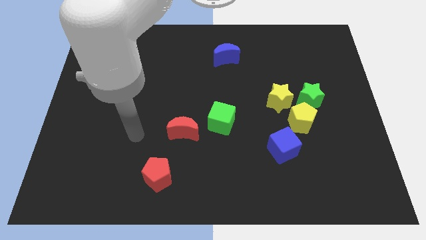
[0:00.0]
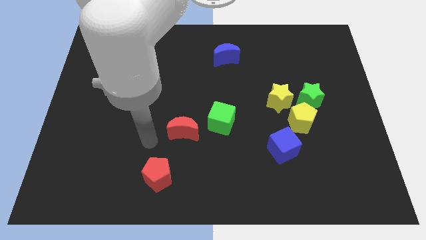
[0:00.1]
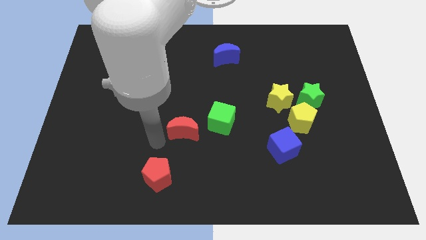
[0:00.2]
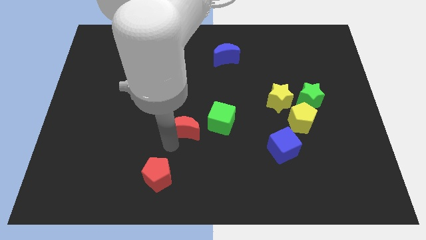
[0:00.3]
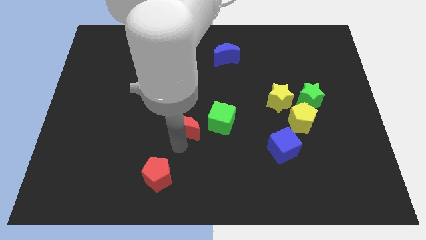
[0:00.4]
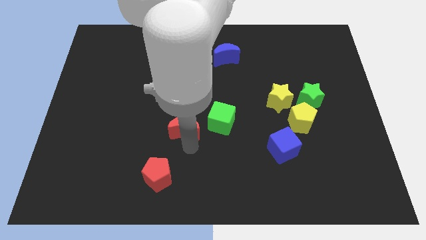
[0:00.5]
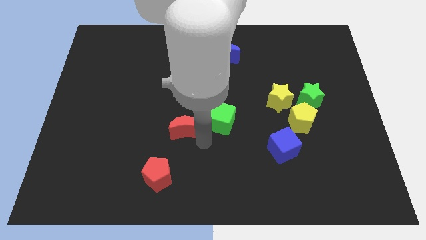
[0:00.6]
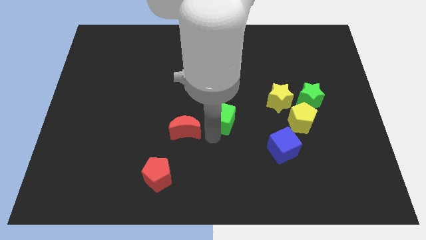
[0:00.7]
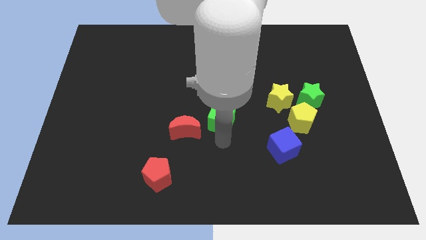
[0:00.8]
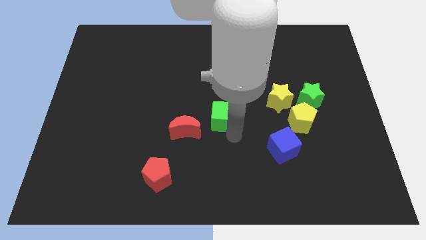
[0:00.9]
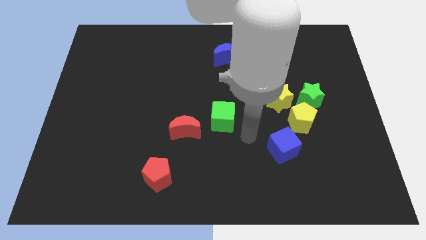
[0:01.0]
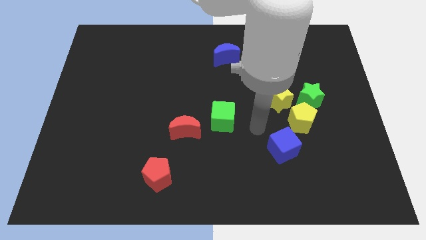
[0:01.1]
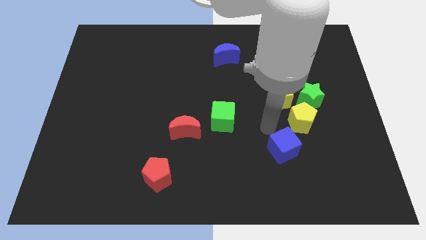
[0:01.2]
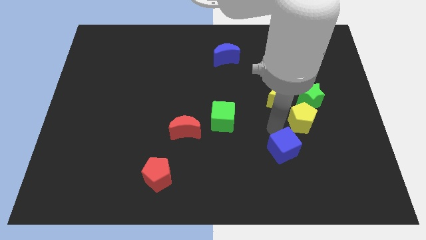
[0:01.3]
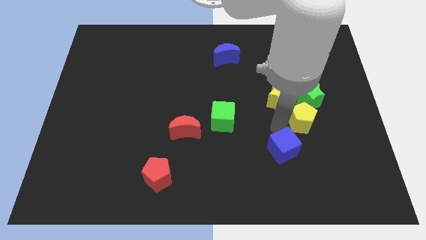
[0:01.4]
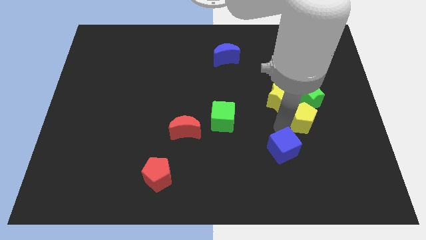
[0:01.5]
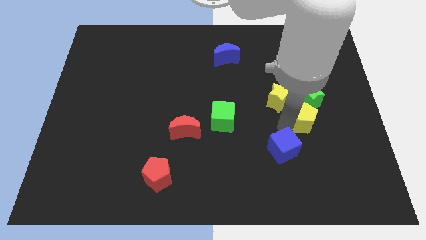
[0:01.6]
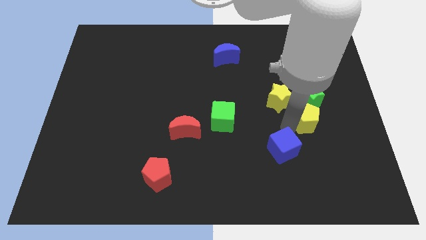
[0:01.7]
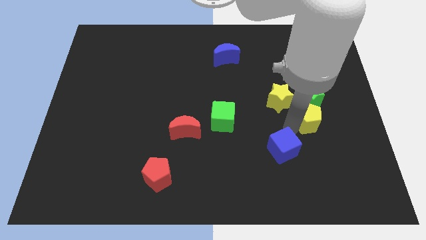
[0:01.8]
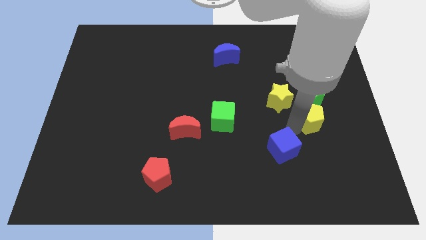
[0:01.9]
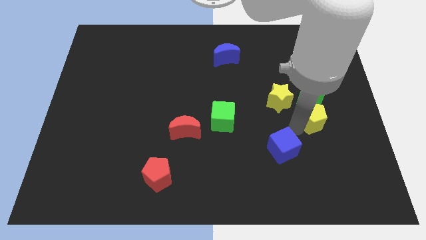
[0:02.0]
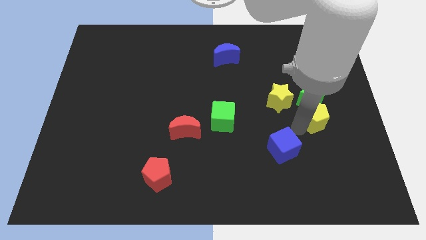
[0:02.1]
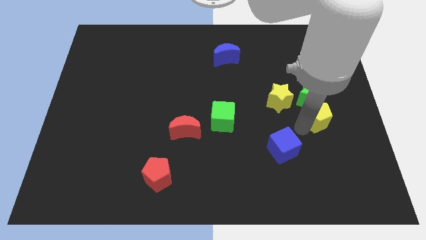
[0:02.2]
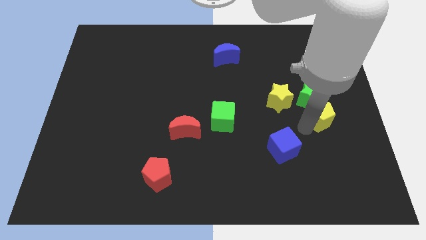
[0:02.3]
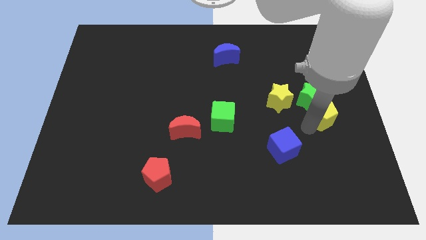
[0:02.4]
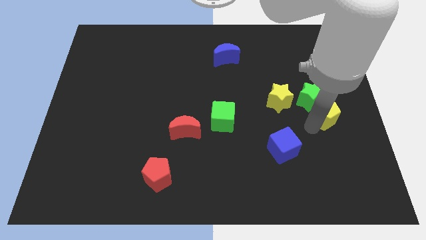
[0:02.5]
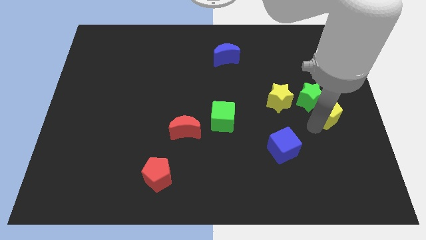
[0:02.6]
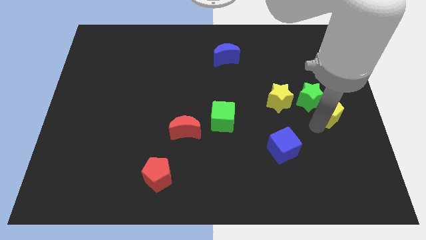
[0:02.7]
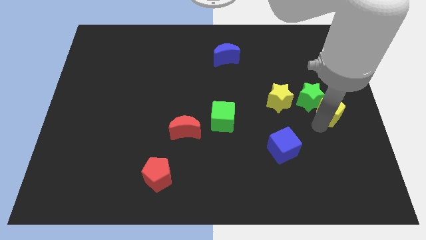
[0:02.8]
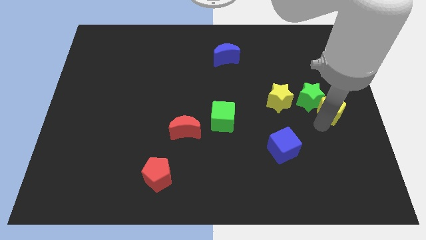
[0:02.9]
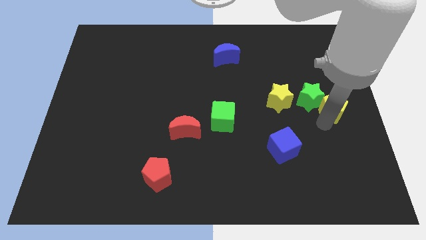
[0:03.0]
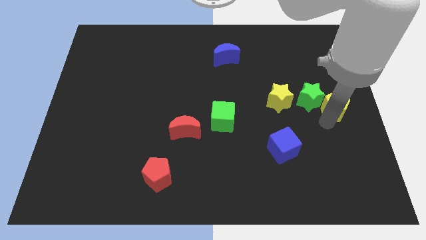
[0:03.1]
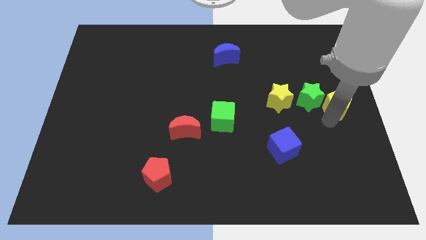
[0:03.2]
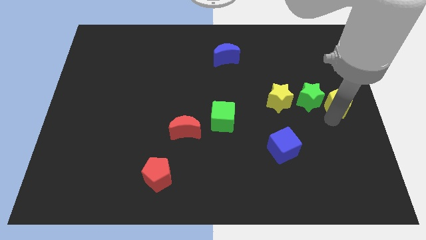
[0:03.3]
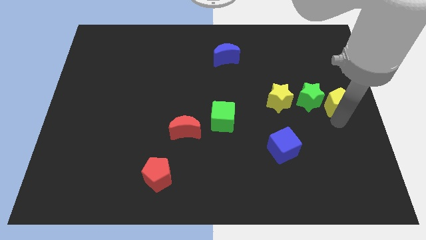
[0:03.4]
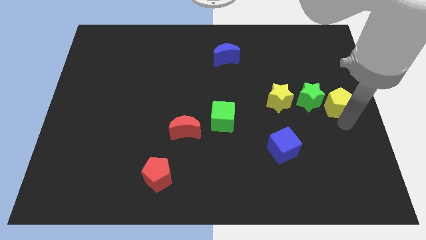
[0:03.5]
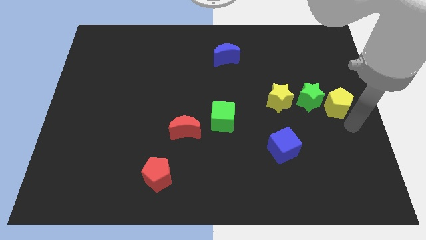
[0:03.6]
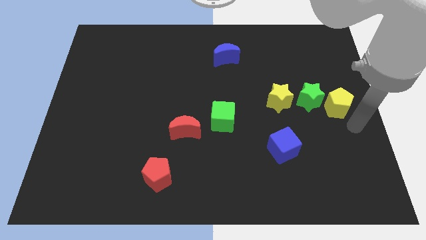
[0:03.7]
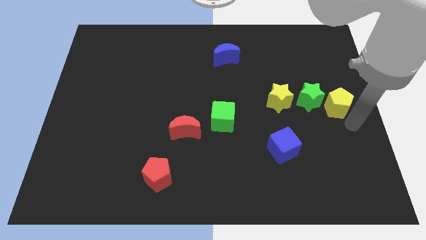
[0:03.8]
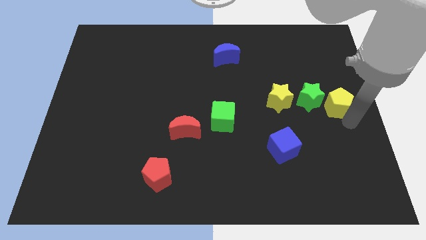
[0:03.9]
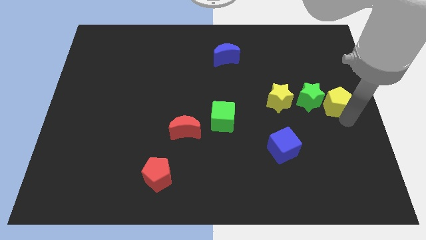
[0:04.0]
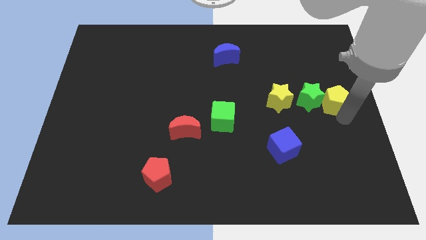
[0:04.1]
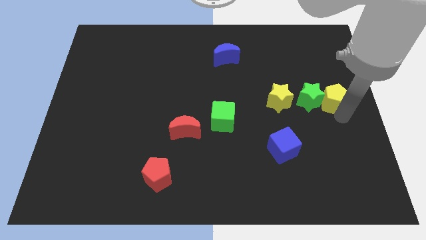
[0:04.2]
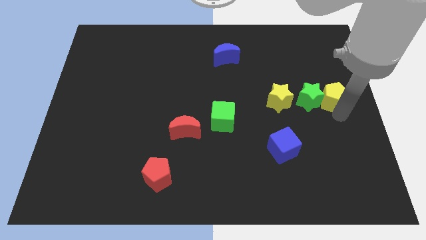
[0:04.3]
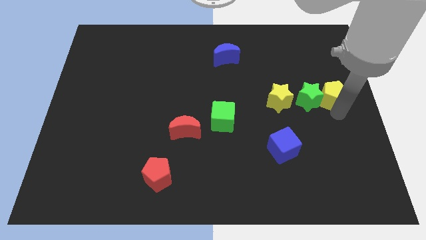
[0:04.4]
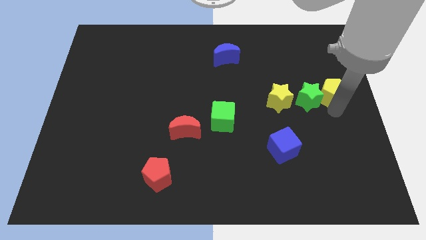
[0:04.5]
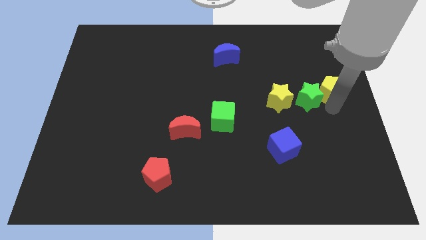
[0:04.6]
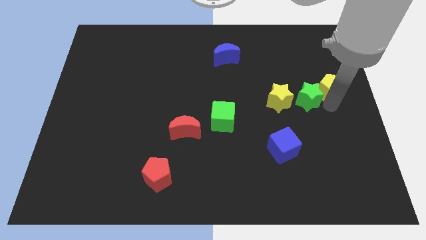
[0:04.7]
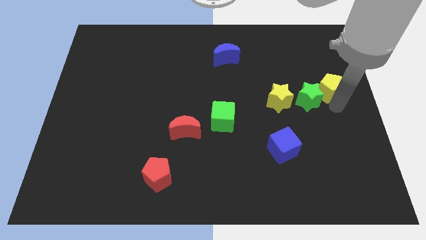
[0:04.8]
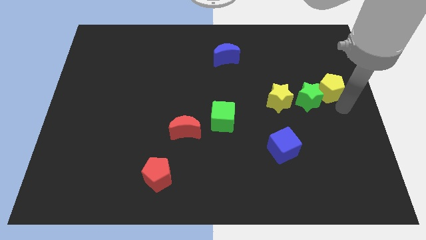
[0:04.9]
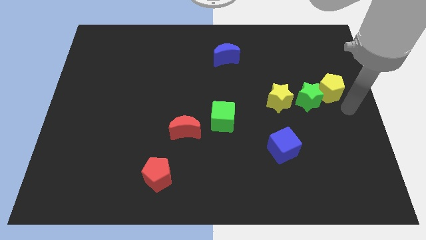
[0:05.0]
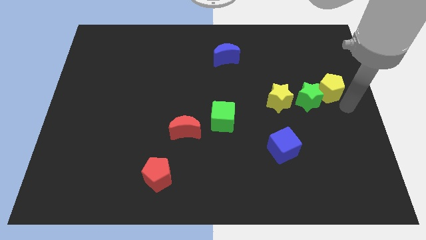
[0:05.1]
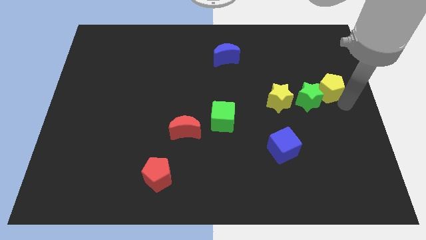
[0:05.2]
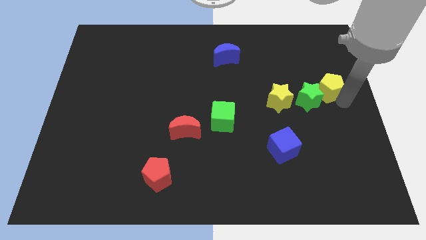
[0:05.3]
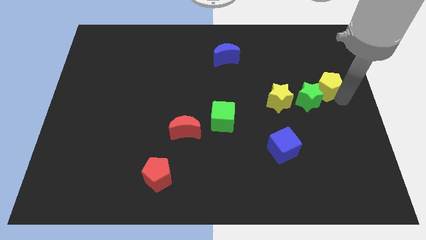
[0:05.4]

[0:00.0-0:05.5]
slightly move the yellow pentagon upwards

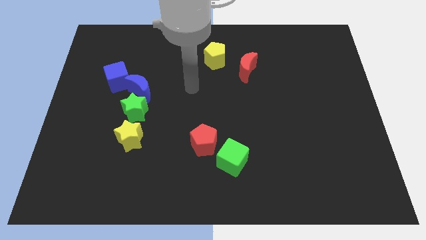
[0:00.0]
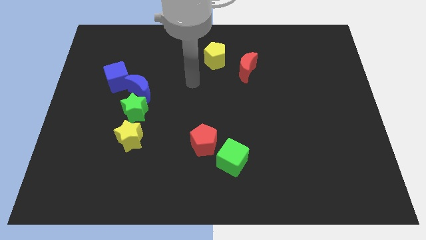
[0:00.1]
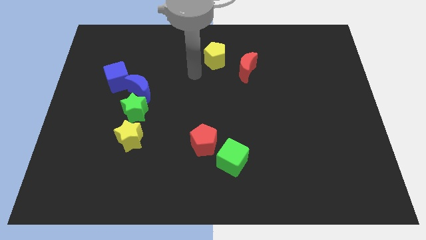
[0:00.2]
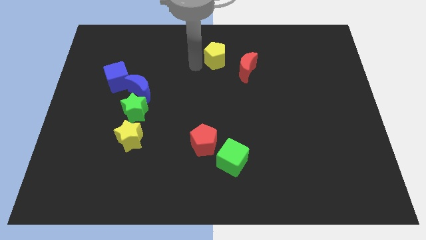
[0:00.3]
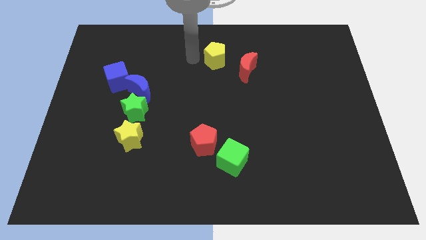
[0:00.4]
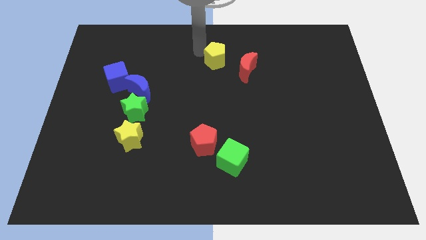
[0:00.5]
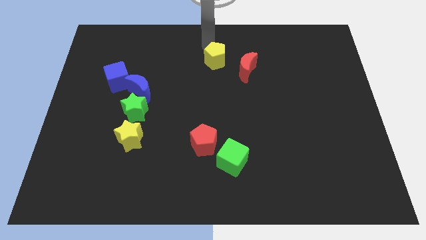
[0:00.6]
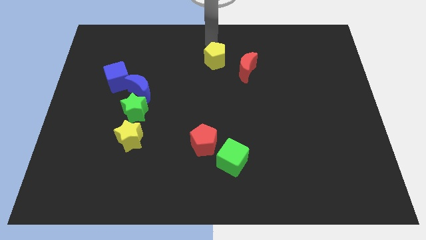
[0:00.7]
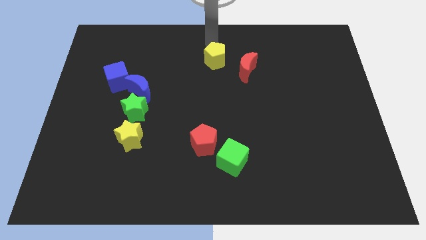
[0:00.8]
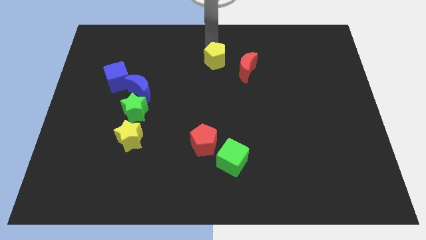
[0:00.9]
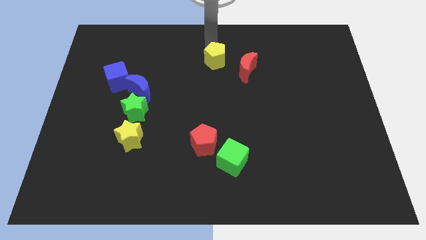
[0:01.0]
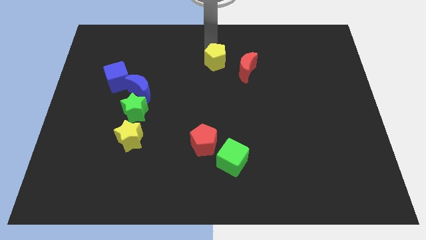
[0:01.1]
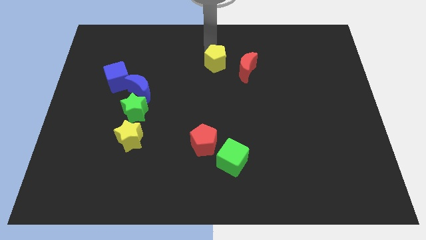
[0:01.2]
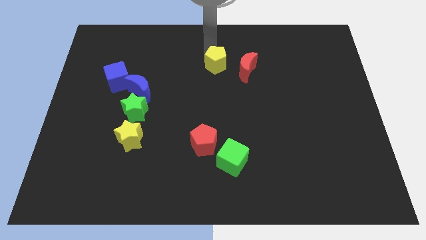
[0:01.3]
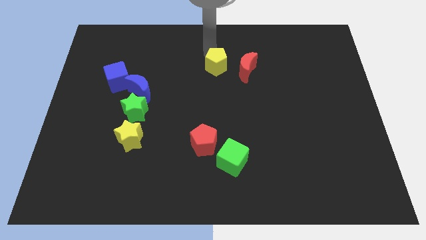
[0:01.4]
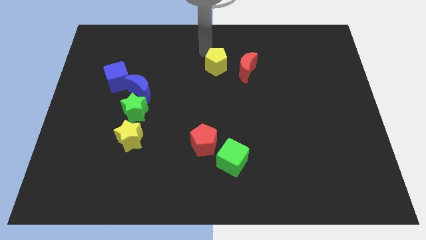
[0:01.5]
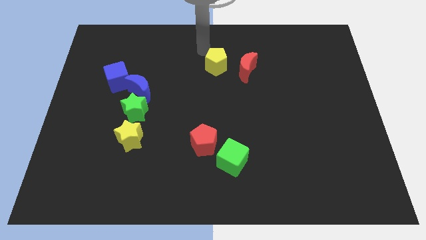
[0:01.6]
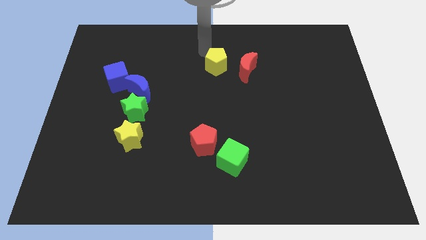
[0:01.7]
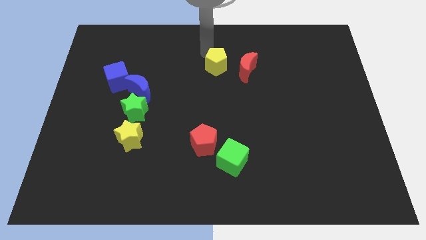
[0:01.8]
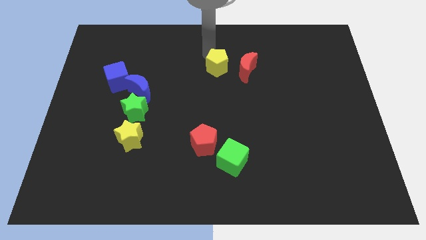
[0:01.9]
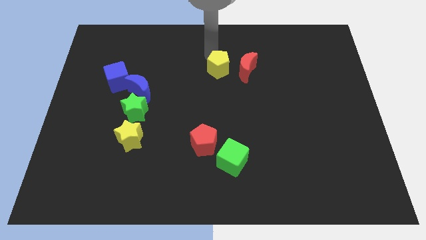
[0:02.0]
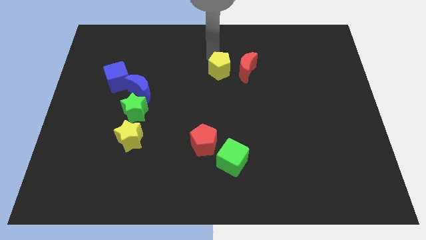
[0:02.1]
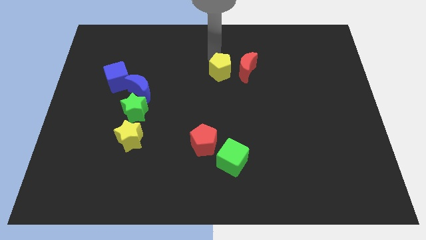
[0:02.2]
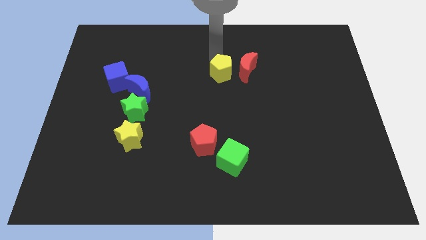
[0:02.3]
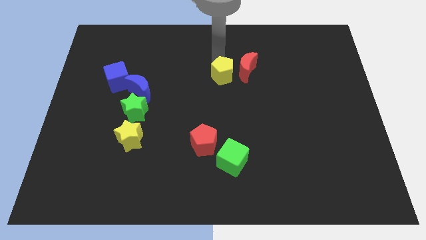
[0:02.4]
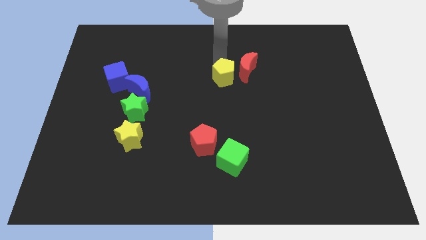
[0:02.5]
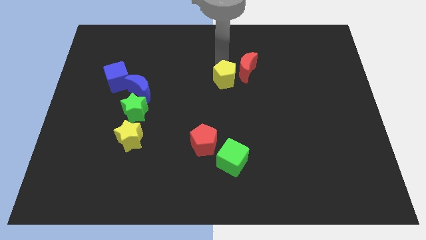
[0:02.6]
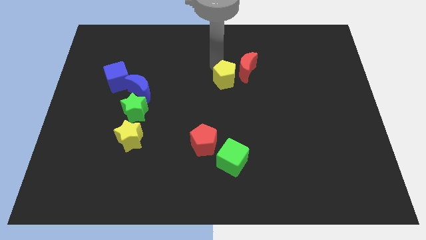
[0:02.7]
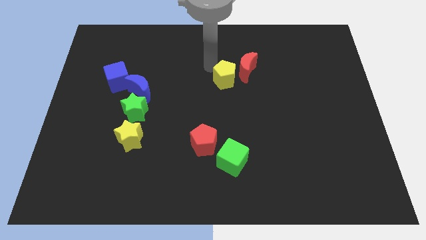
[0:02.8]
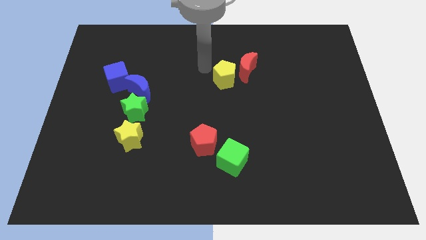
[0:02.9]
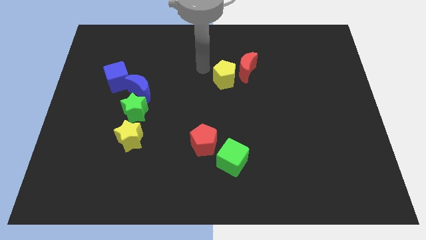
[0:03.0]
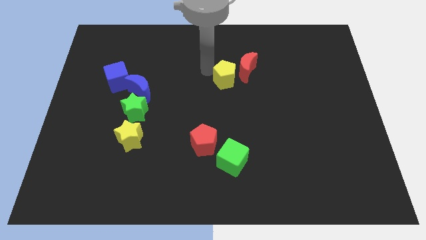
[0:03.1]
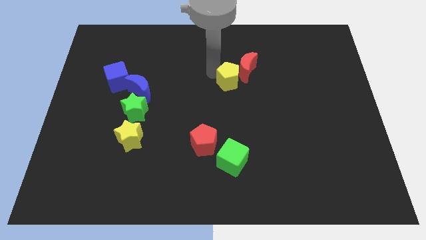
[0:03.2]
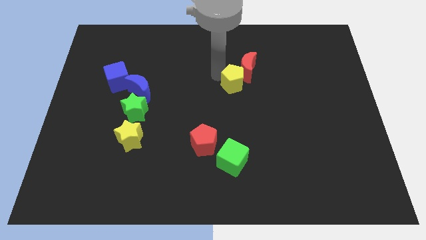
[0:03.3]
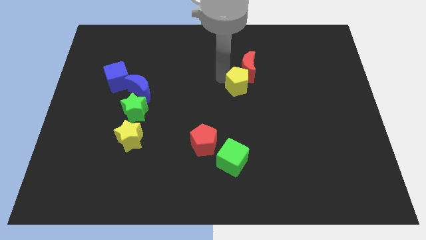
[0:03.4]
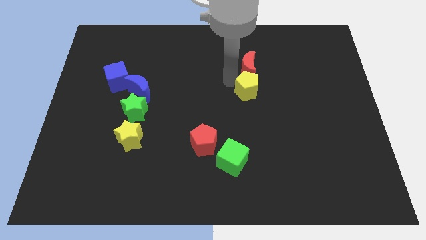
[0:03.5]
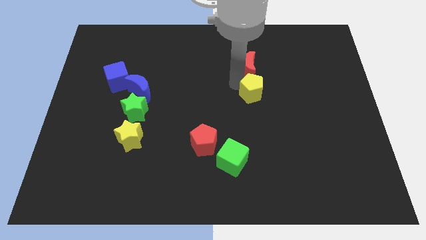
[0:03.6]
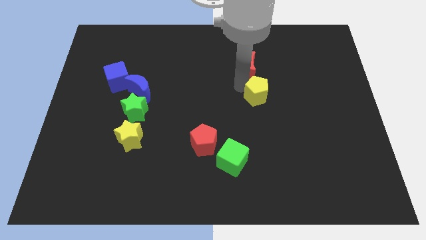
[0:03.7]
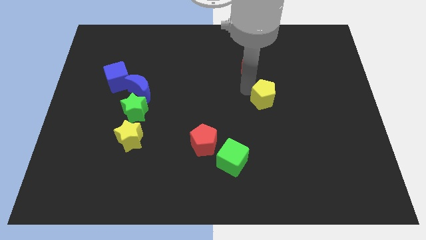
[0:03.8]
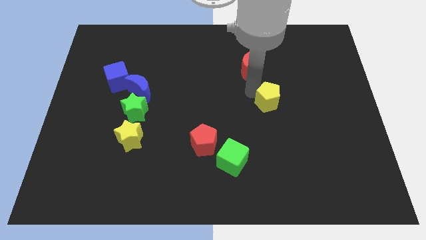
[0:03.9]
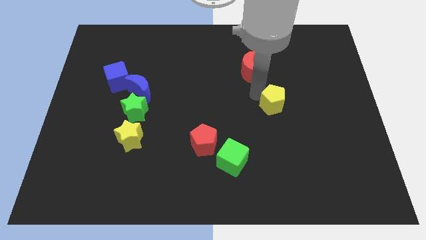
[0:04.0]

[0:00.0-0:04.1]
push the yellow pentagon diagonally down and to the right
